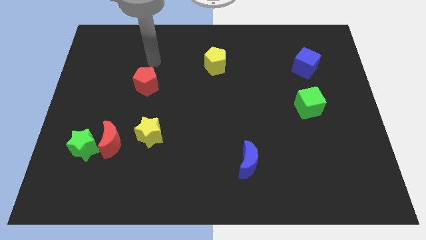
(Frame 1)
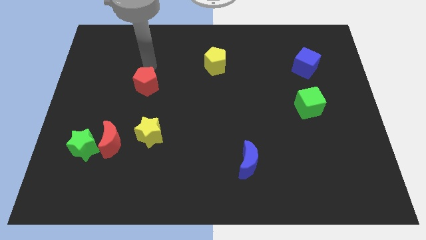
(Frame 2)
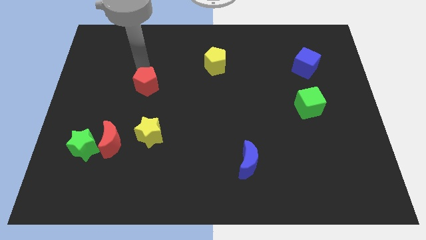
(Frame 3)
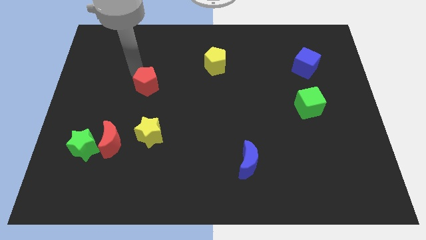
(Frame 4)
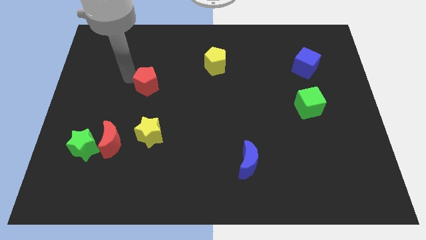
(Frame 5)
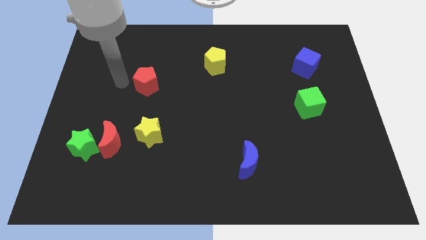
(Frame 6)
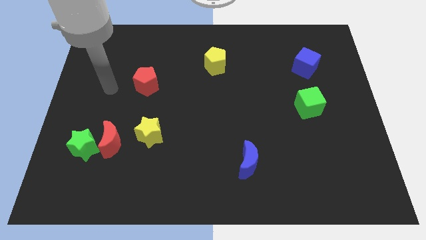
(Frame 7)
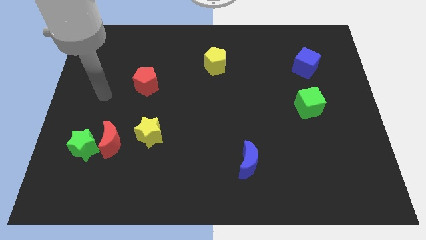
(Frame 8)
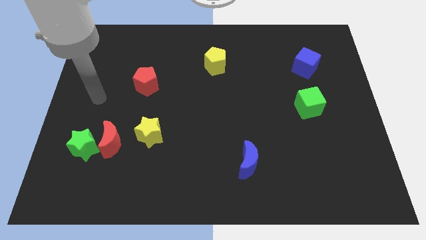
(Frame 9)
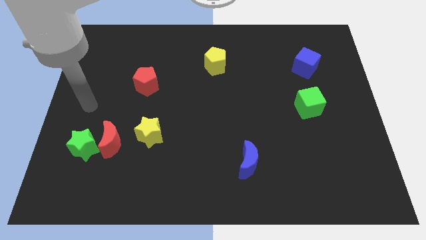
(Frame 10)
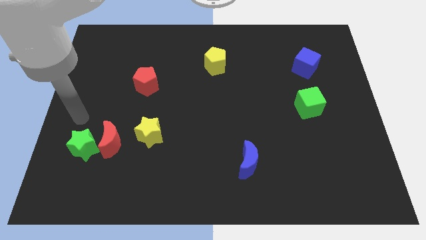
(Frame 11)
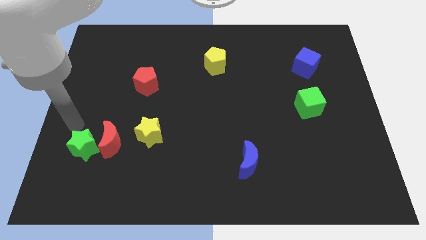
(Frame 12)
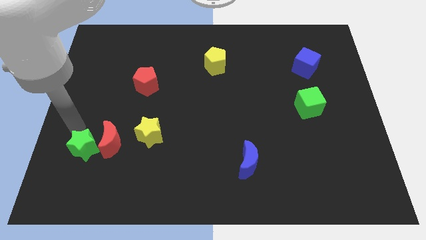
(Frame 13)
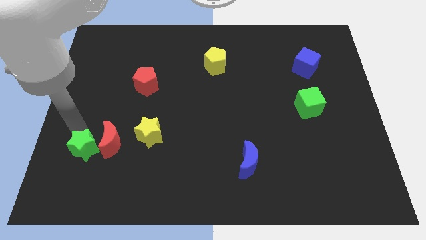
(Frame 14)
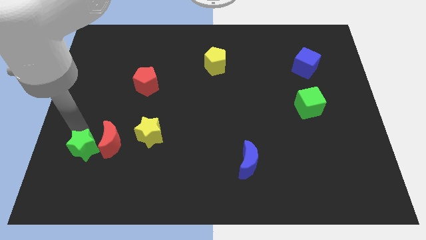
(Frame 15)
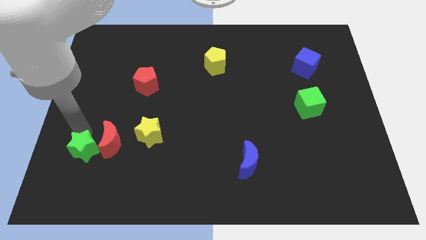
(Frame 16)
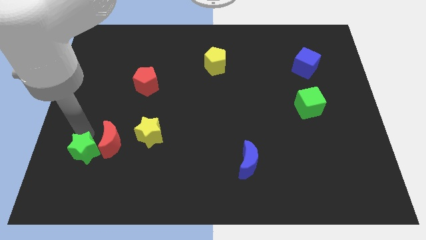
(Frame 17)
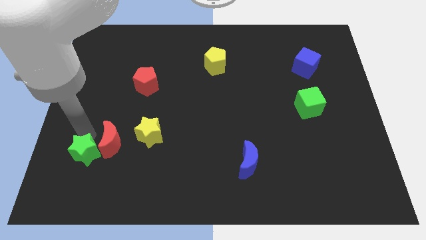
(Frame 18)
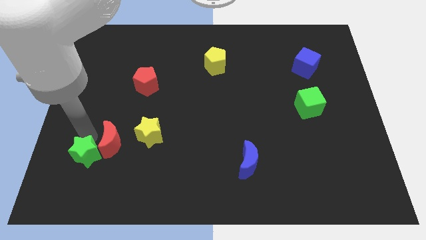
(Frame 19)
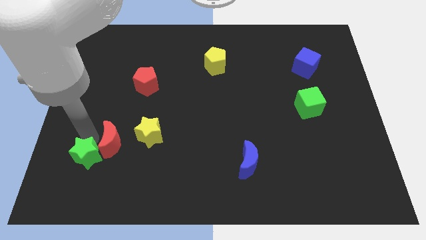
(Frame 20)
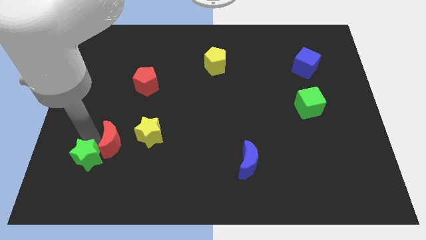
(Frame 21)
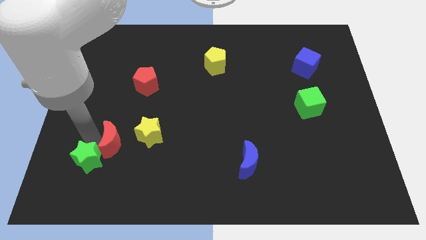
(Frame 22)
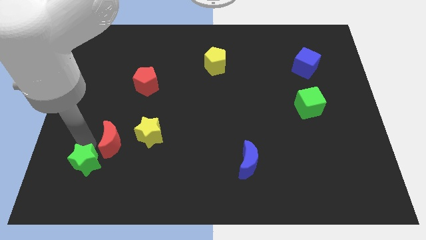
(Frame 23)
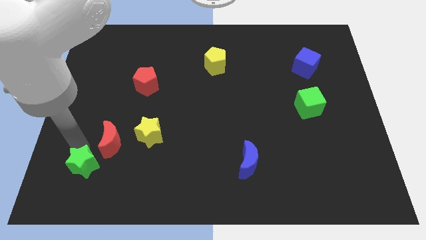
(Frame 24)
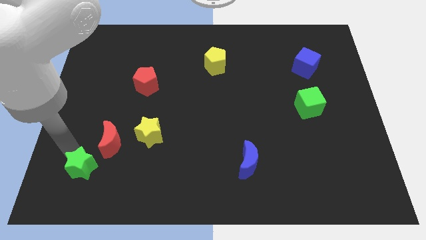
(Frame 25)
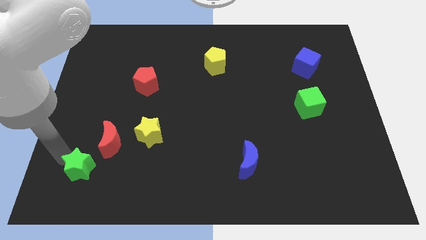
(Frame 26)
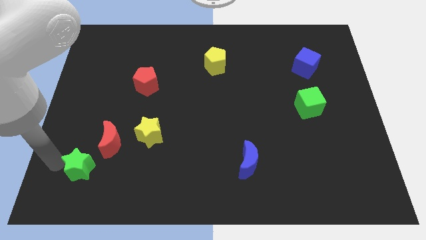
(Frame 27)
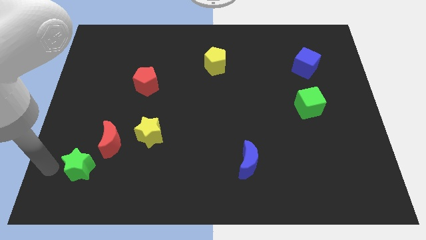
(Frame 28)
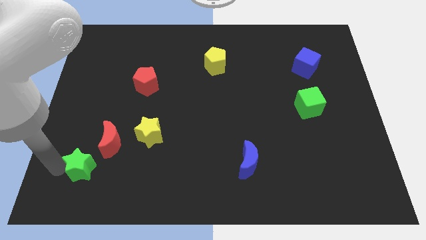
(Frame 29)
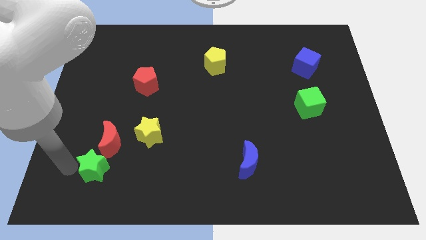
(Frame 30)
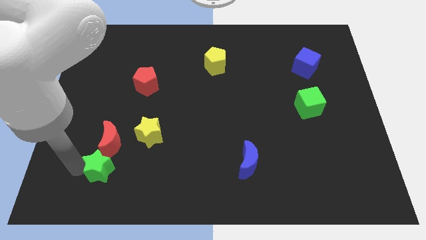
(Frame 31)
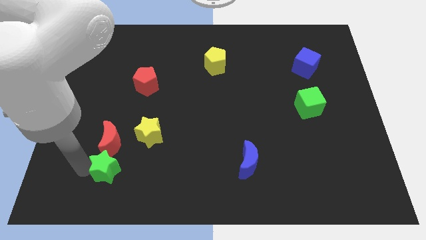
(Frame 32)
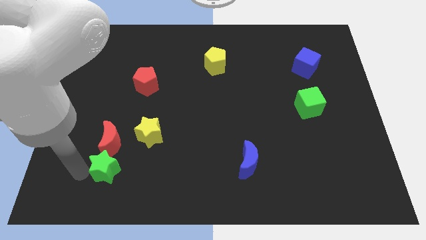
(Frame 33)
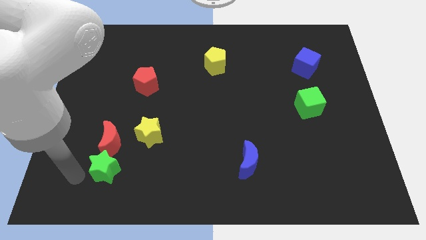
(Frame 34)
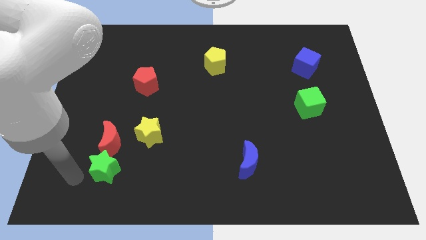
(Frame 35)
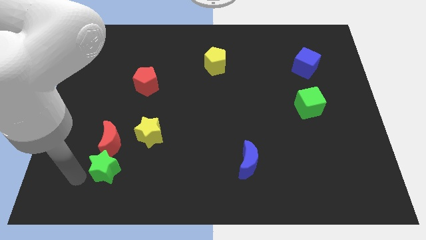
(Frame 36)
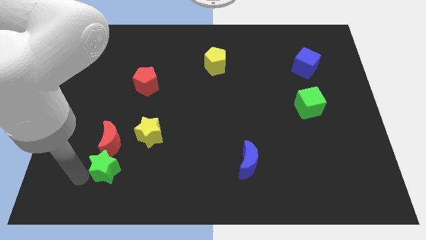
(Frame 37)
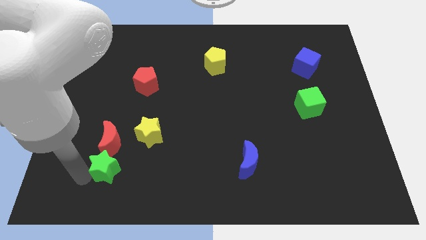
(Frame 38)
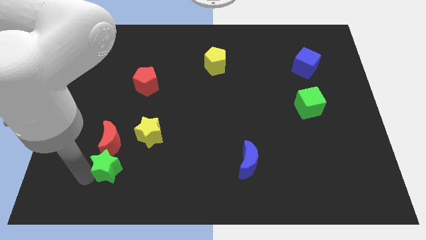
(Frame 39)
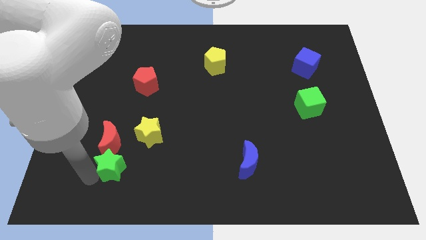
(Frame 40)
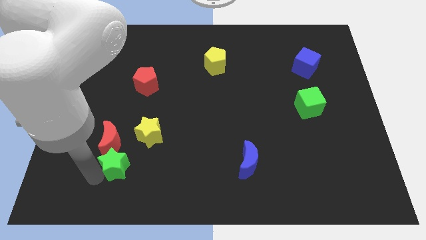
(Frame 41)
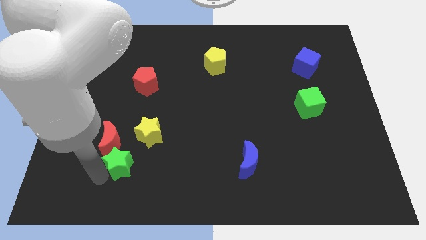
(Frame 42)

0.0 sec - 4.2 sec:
move the green star to the right a little

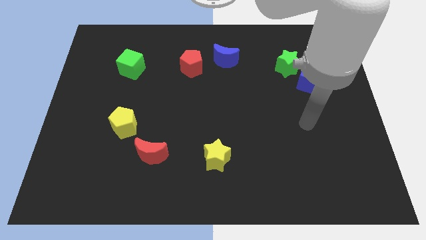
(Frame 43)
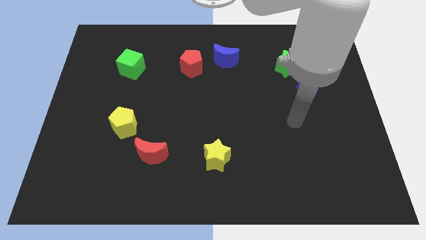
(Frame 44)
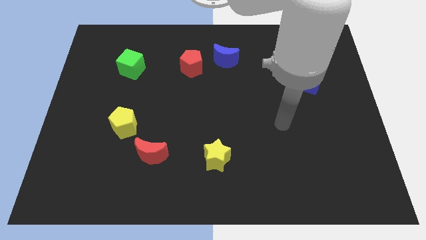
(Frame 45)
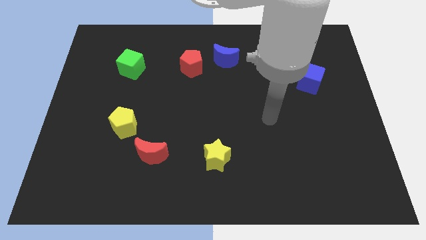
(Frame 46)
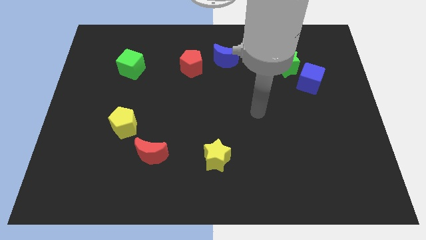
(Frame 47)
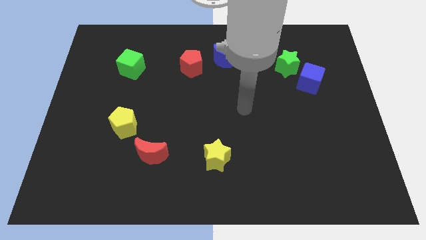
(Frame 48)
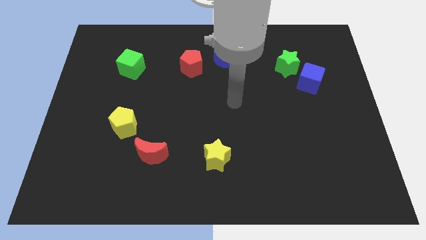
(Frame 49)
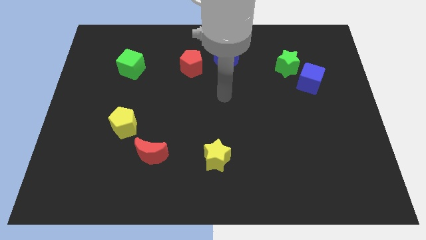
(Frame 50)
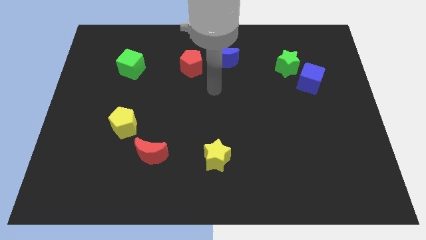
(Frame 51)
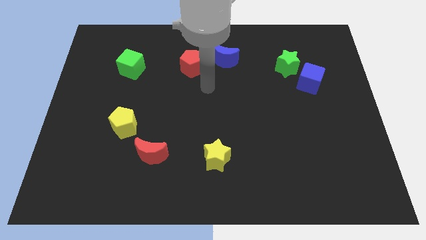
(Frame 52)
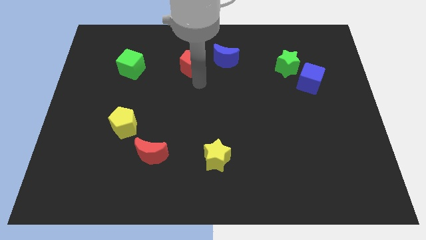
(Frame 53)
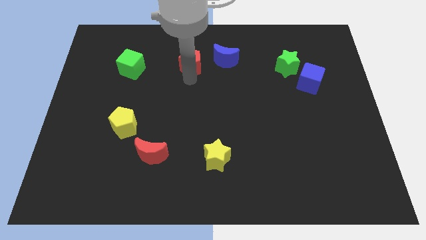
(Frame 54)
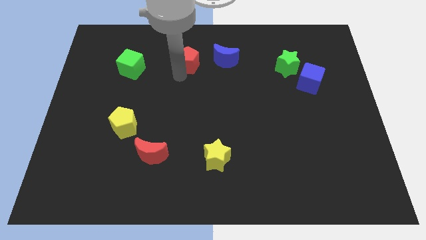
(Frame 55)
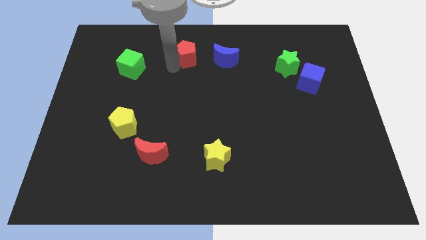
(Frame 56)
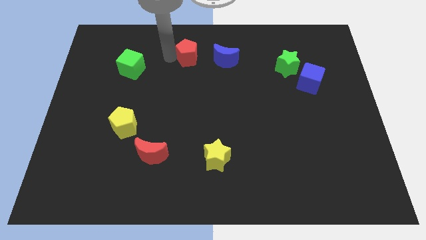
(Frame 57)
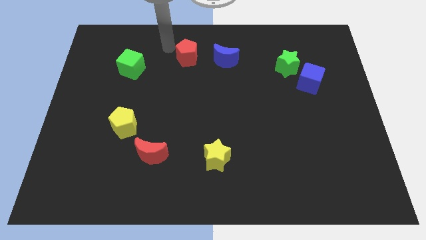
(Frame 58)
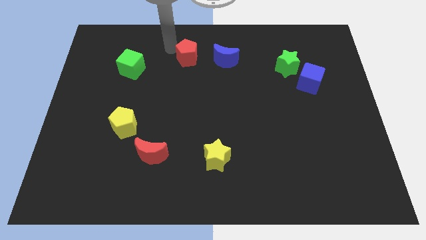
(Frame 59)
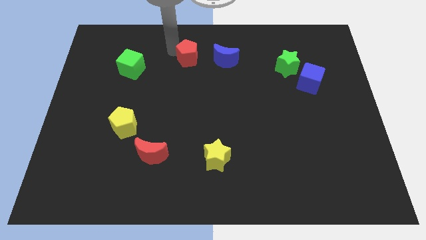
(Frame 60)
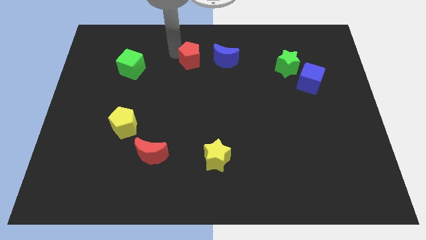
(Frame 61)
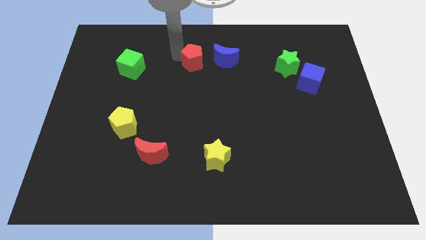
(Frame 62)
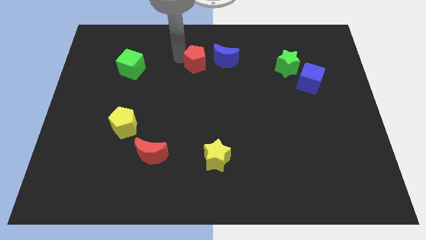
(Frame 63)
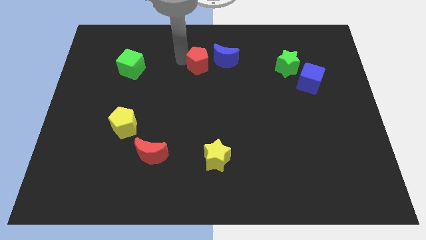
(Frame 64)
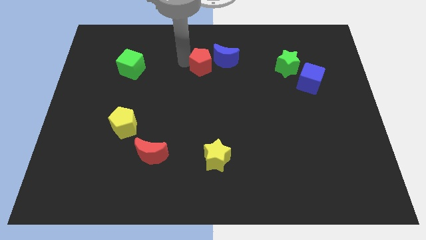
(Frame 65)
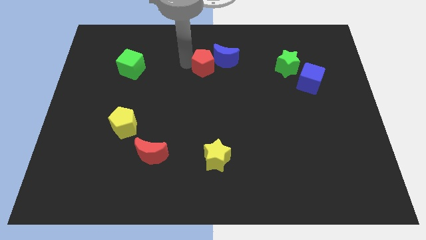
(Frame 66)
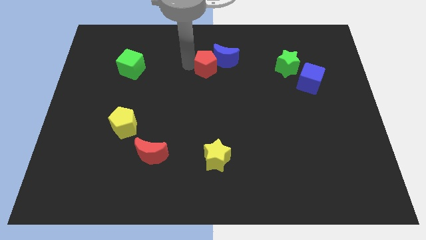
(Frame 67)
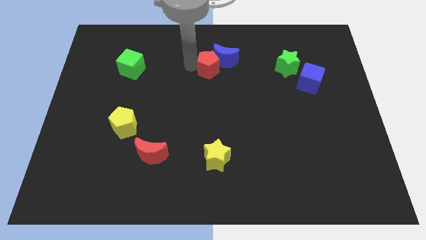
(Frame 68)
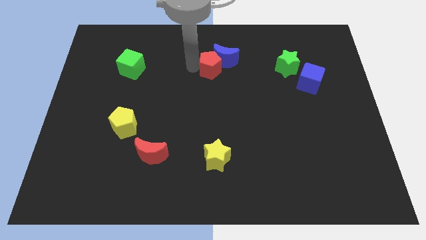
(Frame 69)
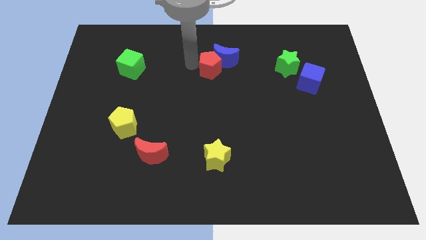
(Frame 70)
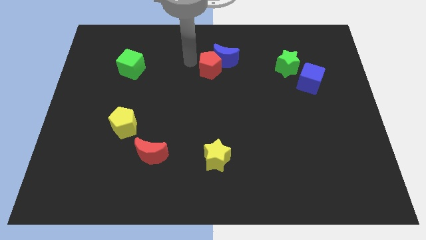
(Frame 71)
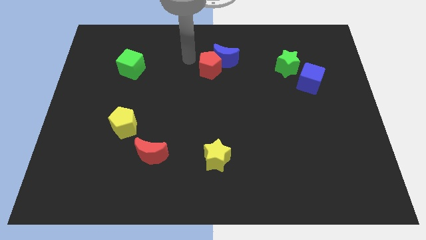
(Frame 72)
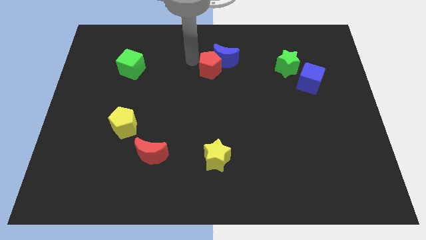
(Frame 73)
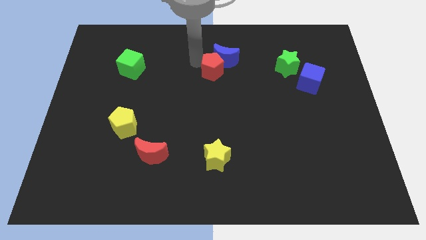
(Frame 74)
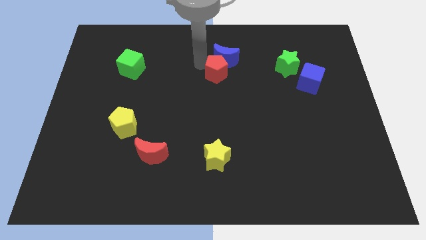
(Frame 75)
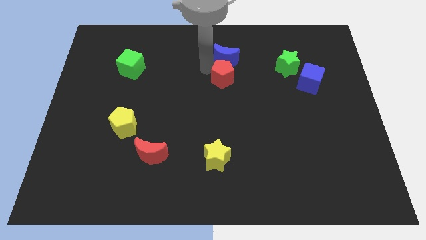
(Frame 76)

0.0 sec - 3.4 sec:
push the red pentagon to the right a bit

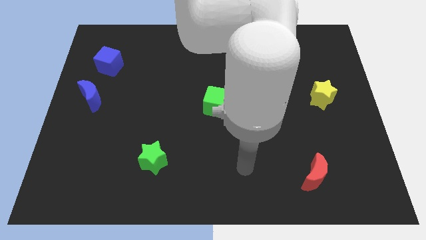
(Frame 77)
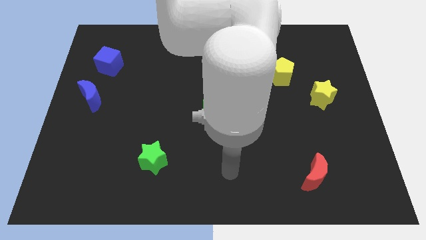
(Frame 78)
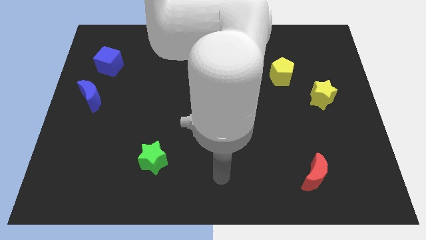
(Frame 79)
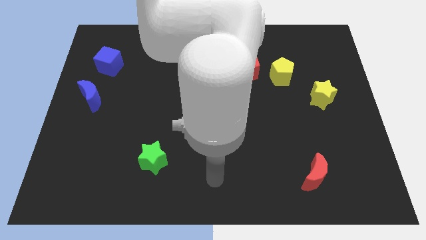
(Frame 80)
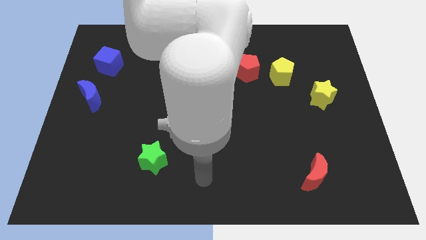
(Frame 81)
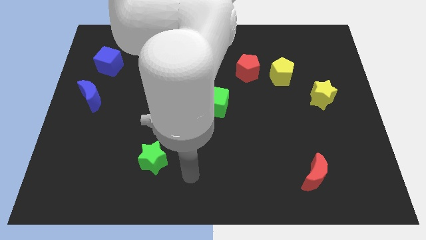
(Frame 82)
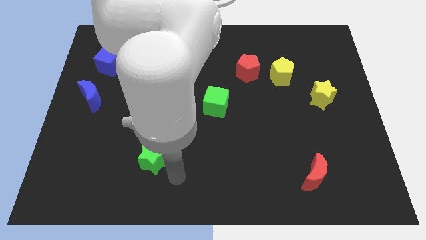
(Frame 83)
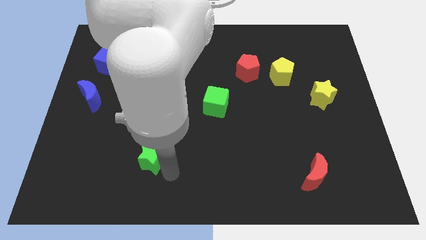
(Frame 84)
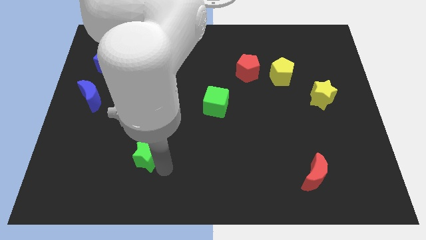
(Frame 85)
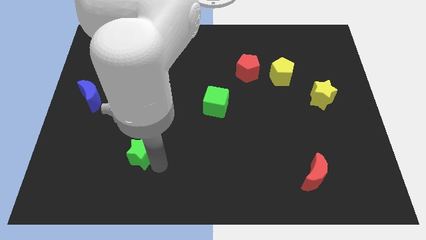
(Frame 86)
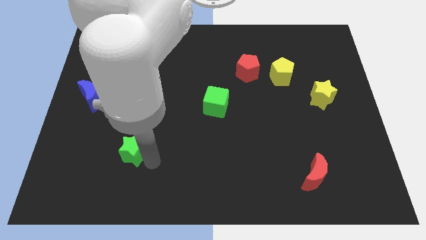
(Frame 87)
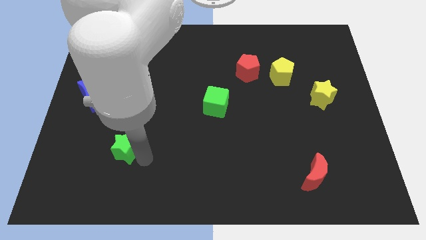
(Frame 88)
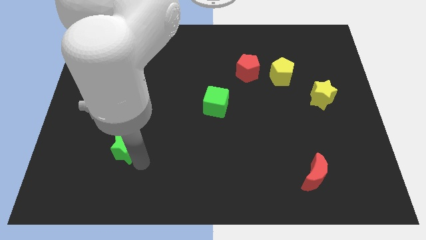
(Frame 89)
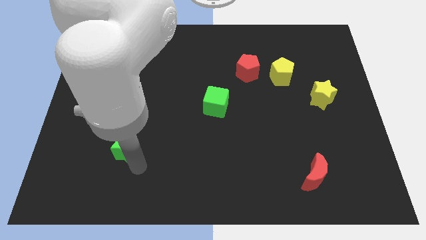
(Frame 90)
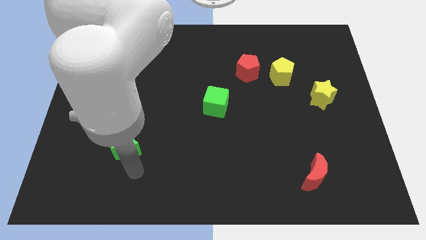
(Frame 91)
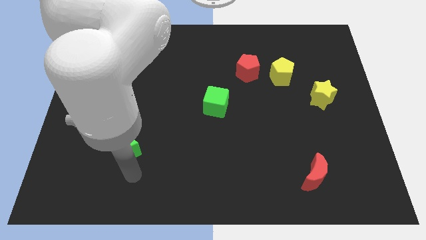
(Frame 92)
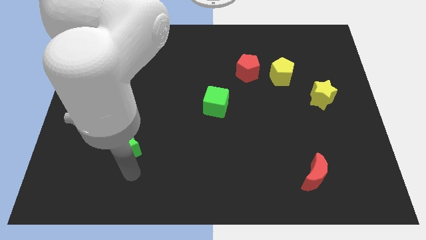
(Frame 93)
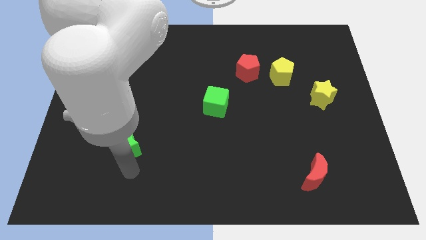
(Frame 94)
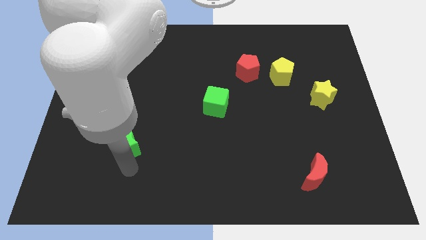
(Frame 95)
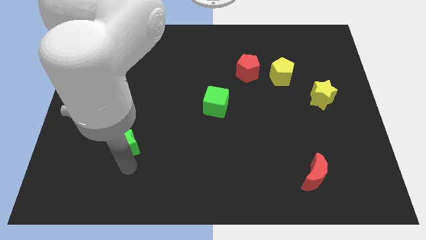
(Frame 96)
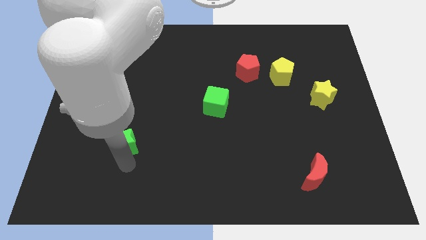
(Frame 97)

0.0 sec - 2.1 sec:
slide the green star up and to the left diagonally a little bit
